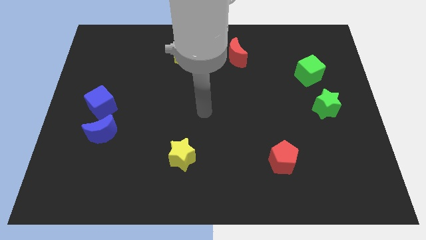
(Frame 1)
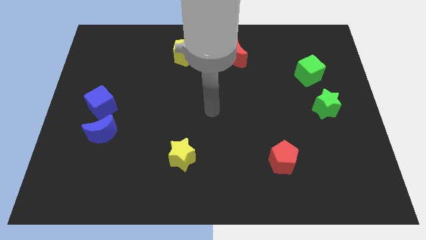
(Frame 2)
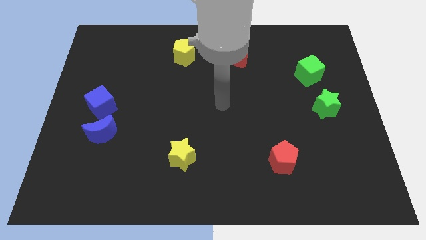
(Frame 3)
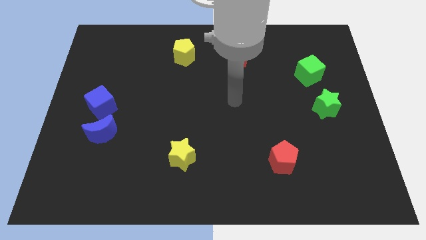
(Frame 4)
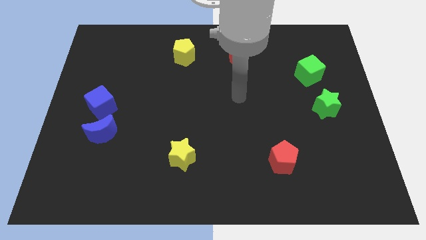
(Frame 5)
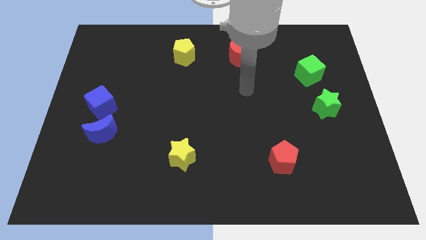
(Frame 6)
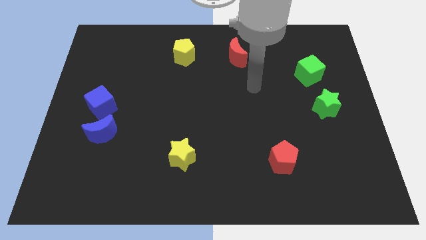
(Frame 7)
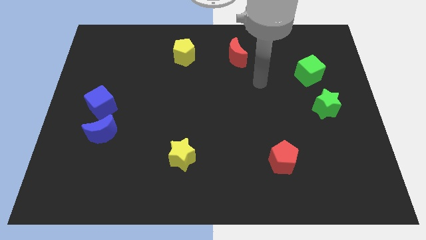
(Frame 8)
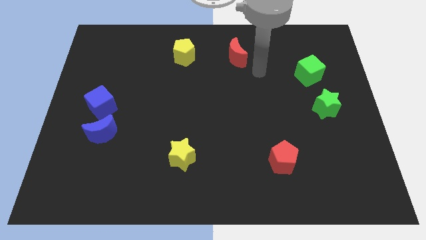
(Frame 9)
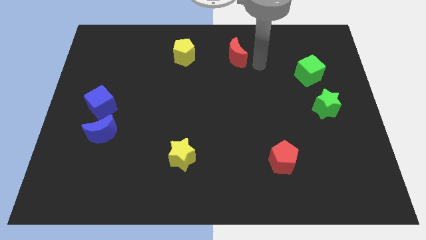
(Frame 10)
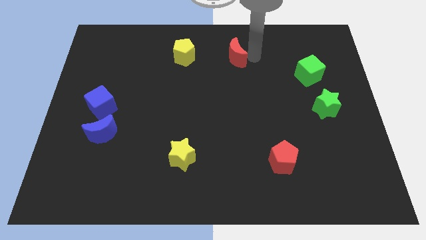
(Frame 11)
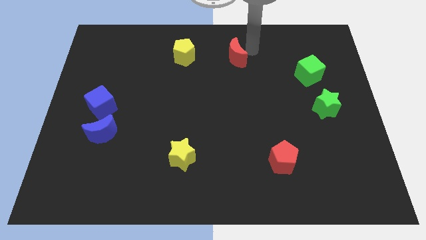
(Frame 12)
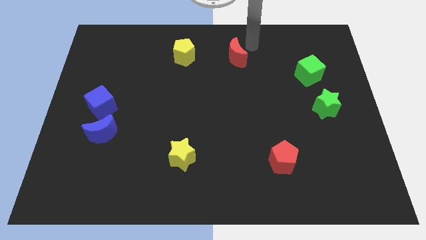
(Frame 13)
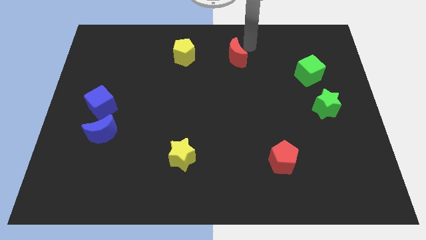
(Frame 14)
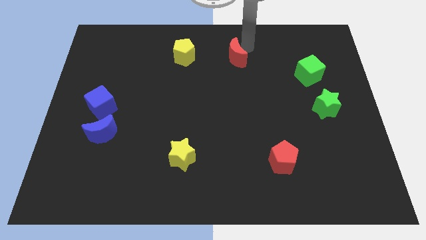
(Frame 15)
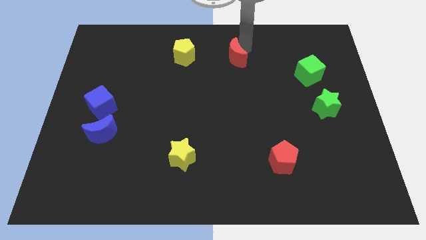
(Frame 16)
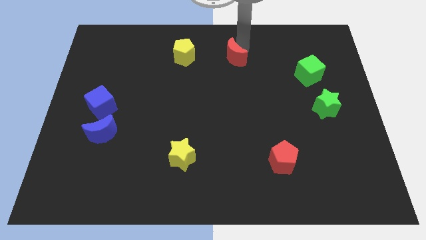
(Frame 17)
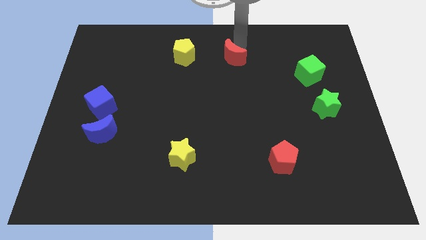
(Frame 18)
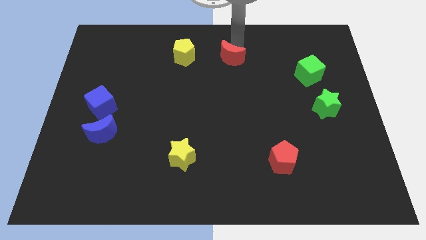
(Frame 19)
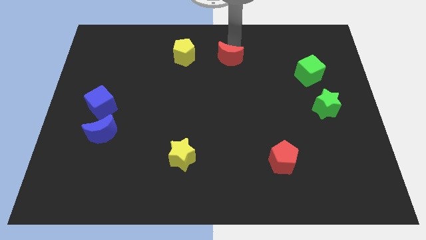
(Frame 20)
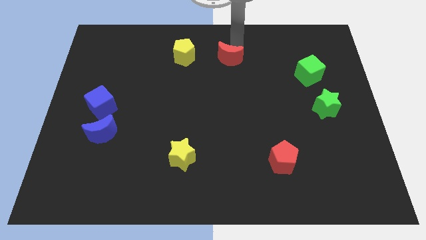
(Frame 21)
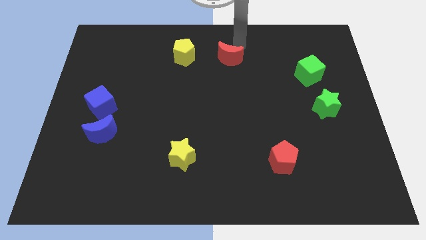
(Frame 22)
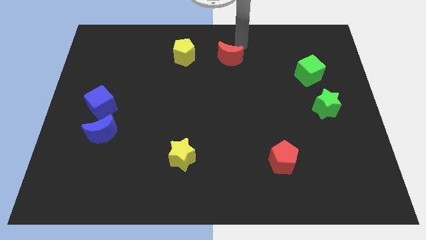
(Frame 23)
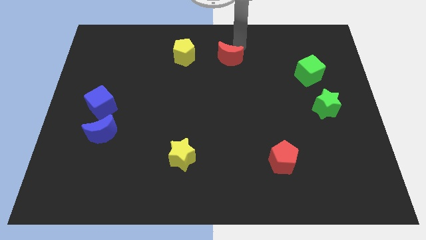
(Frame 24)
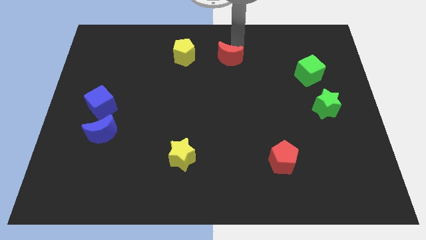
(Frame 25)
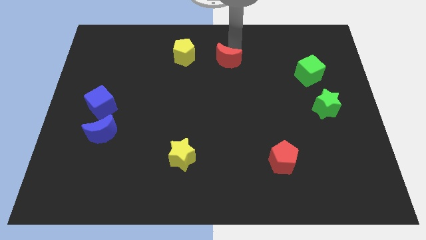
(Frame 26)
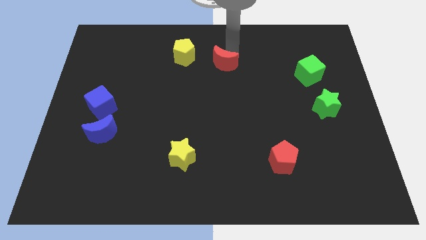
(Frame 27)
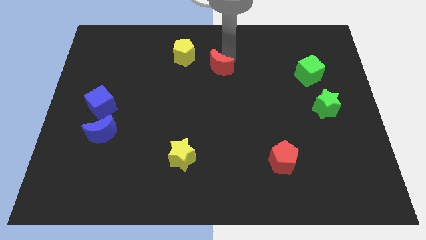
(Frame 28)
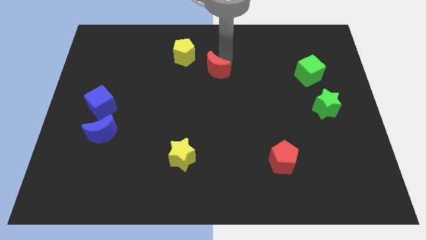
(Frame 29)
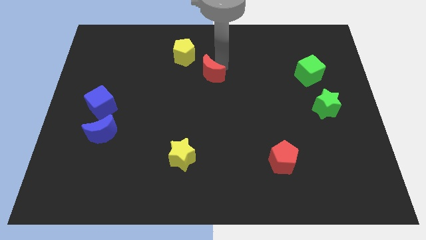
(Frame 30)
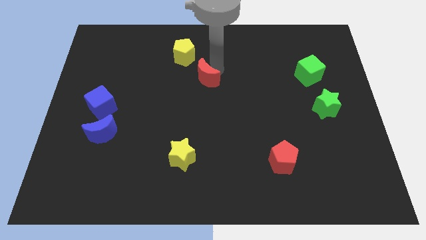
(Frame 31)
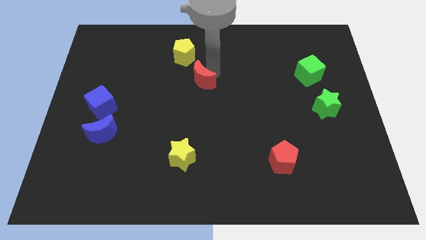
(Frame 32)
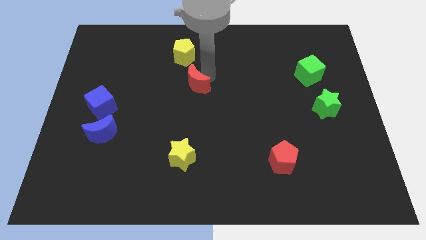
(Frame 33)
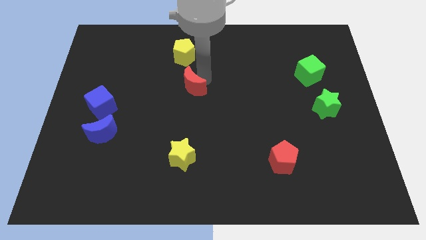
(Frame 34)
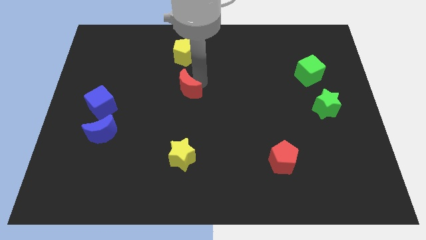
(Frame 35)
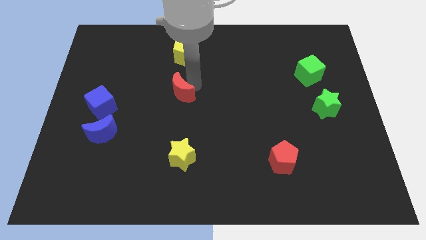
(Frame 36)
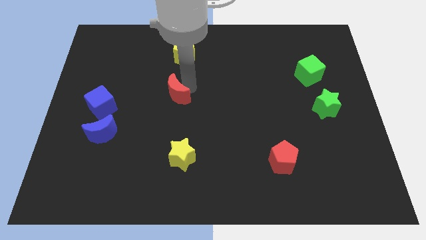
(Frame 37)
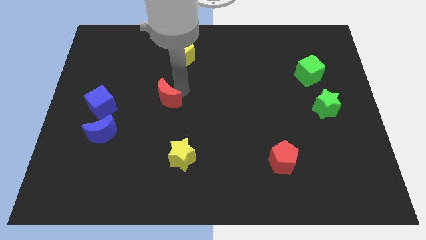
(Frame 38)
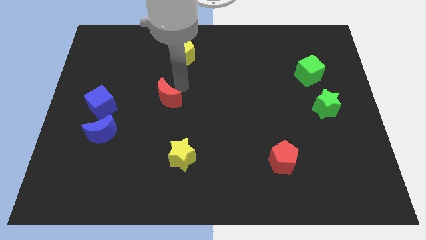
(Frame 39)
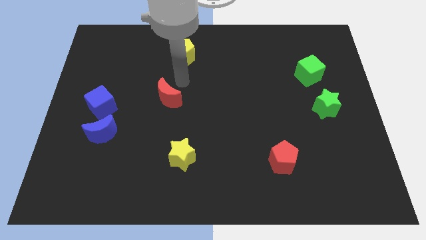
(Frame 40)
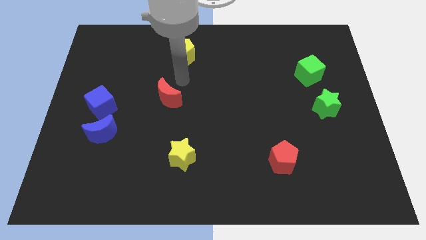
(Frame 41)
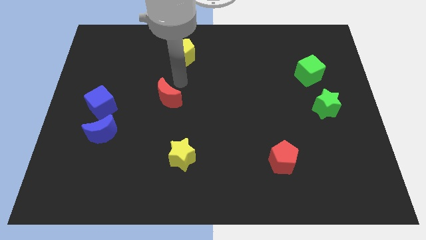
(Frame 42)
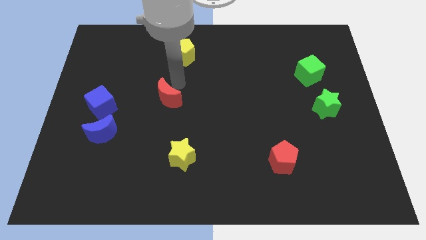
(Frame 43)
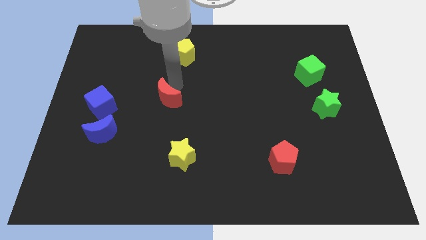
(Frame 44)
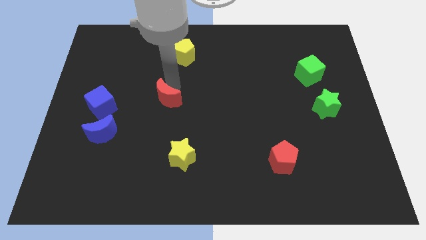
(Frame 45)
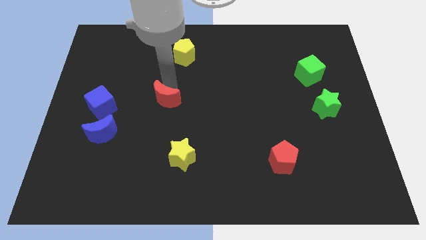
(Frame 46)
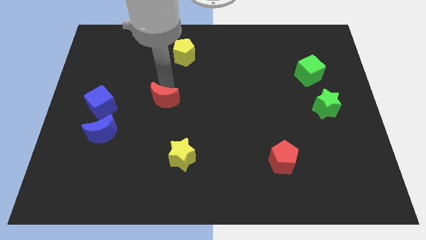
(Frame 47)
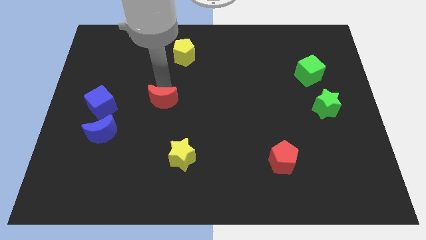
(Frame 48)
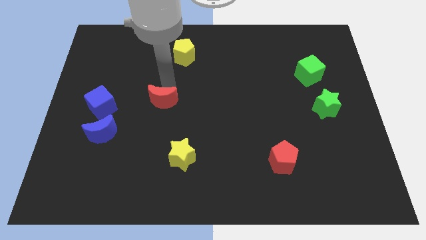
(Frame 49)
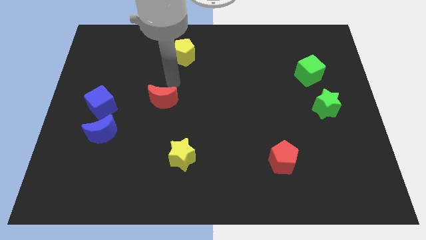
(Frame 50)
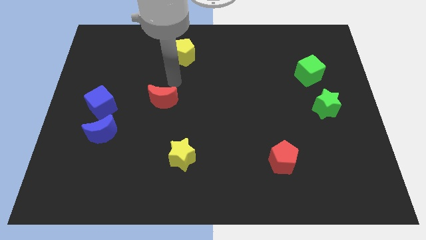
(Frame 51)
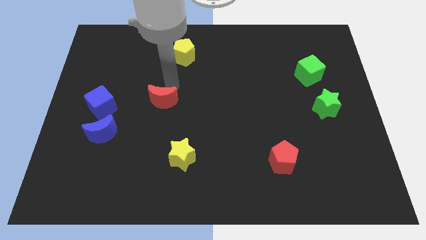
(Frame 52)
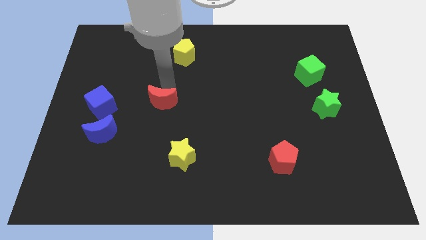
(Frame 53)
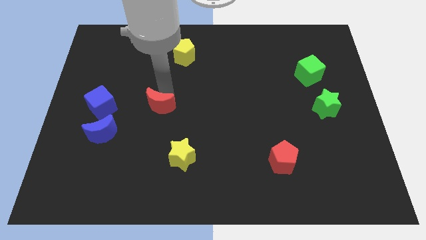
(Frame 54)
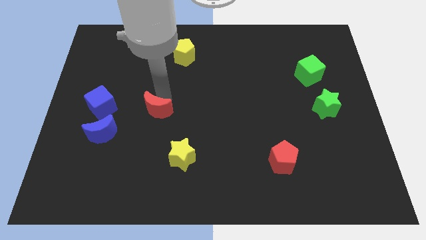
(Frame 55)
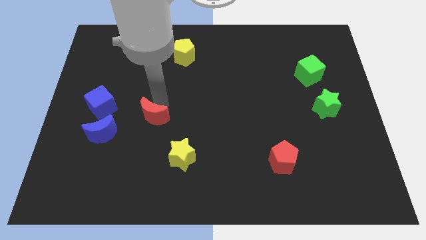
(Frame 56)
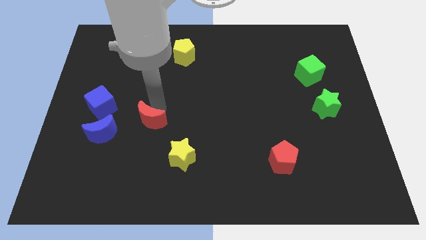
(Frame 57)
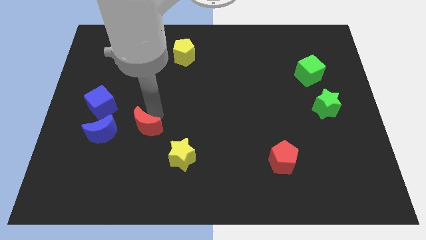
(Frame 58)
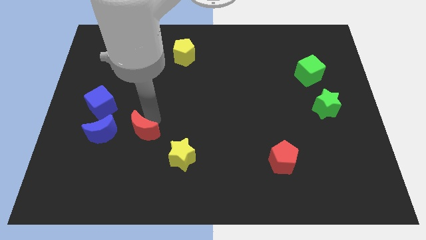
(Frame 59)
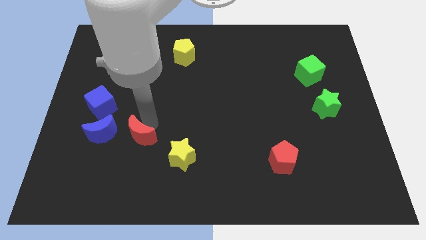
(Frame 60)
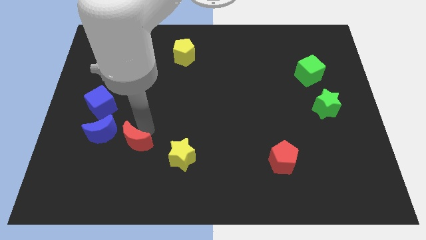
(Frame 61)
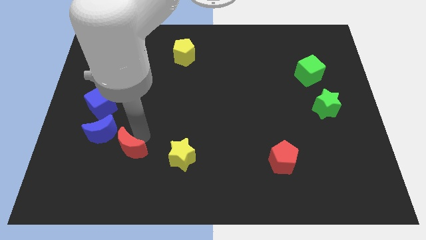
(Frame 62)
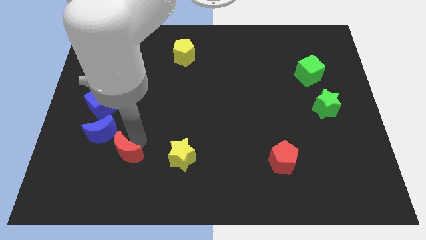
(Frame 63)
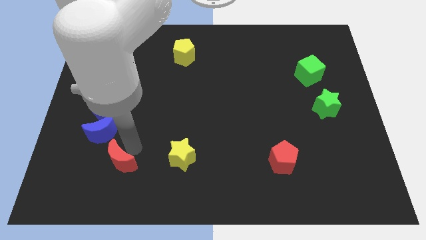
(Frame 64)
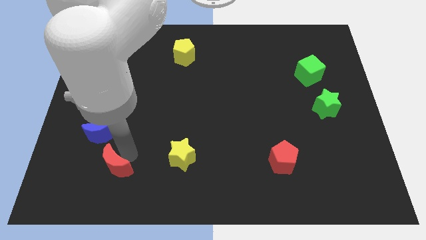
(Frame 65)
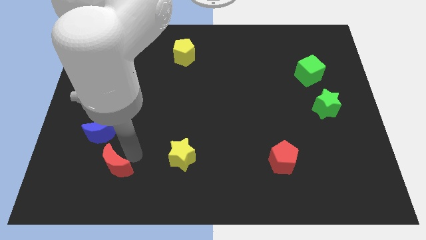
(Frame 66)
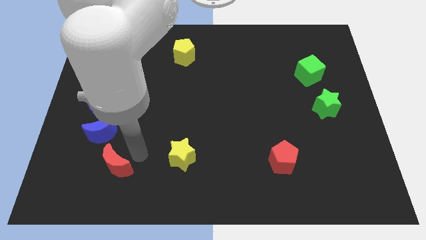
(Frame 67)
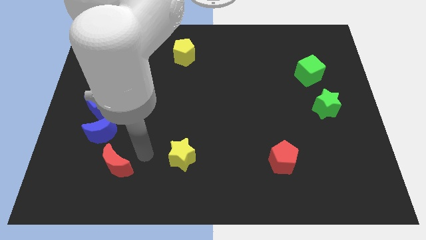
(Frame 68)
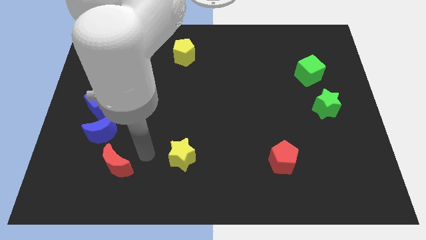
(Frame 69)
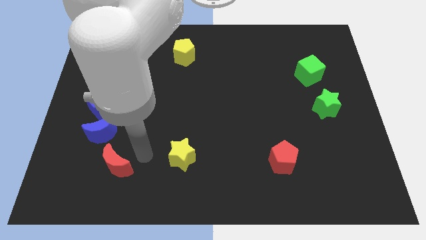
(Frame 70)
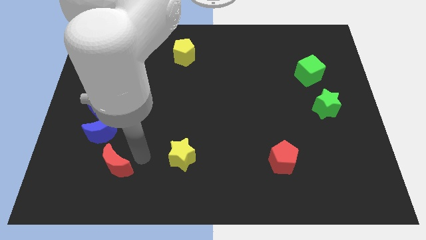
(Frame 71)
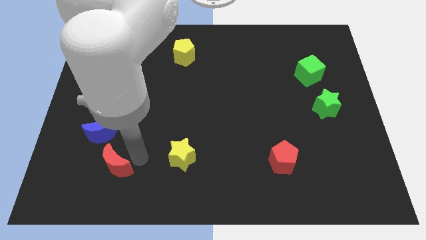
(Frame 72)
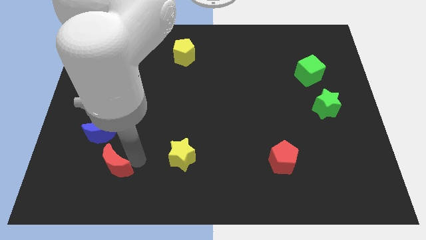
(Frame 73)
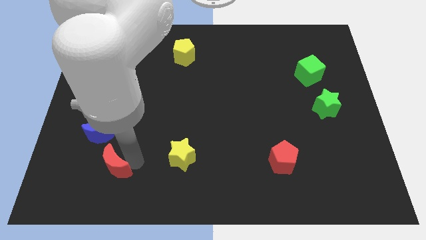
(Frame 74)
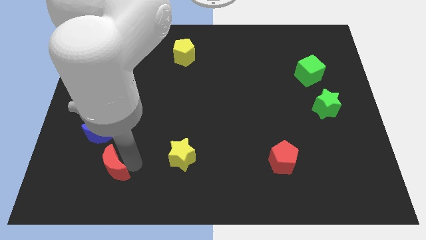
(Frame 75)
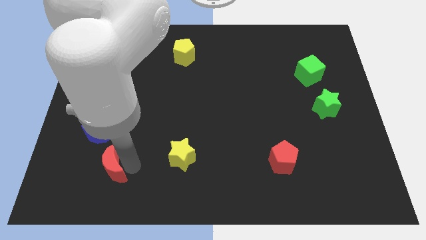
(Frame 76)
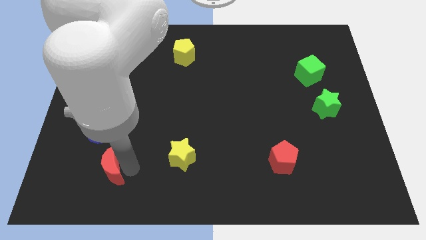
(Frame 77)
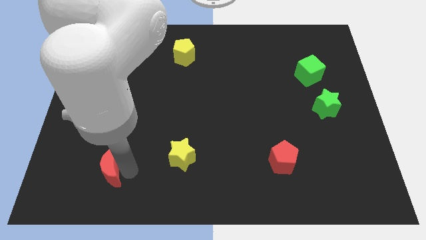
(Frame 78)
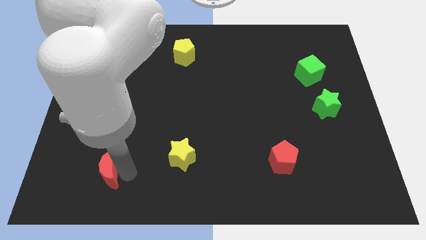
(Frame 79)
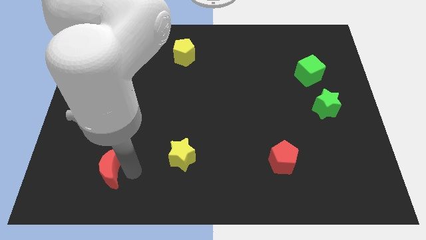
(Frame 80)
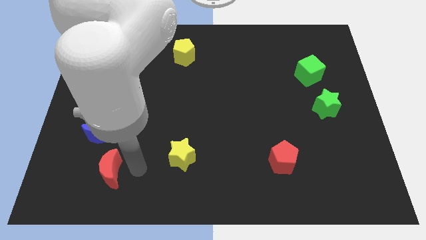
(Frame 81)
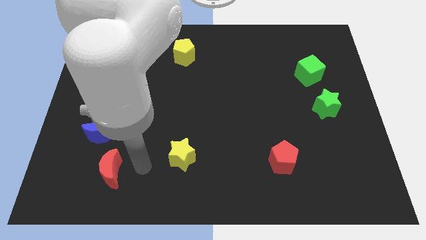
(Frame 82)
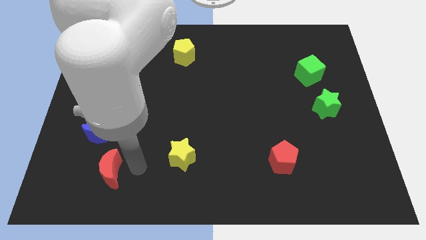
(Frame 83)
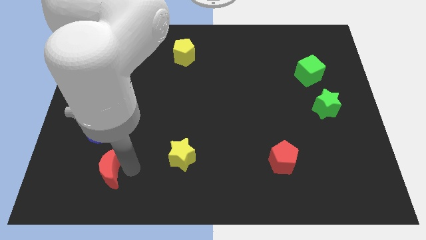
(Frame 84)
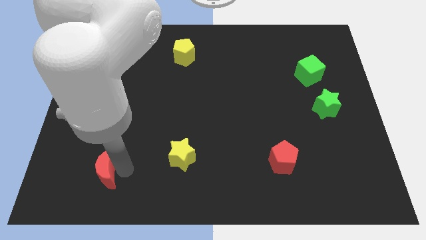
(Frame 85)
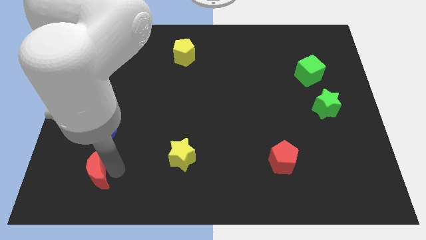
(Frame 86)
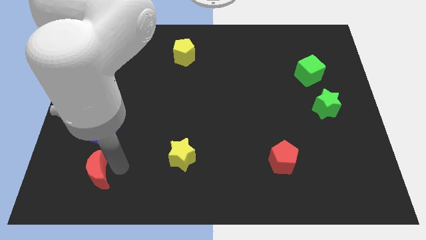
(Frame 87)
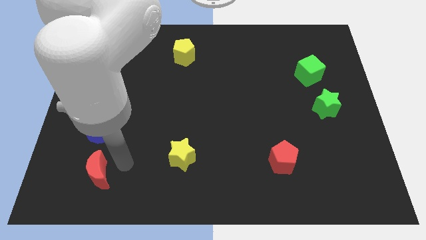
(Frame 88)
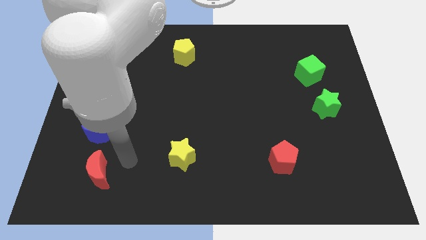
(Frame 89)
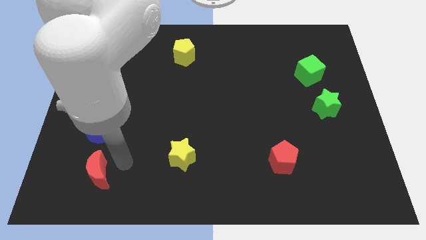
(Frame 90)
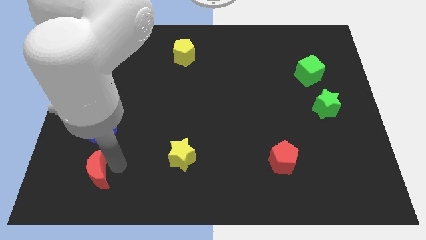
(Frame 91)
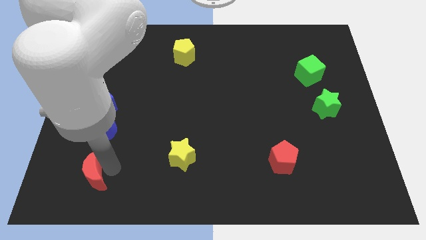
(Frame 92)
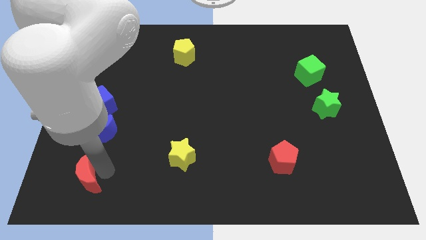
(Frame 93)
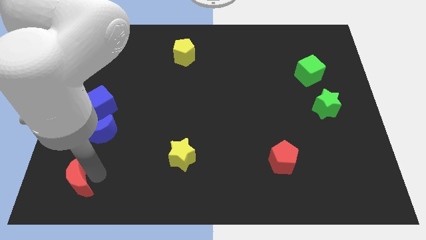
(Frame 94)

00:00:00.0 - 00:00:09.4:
put the red moon to the bottom left
